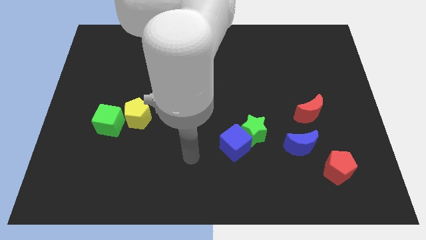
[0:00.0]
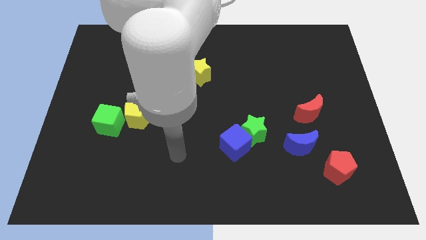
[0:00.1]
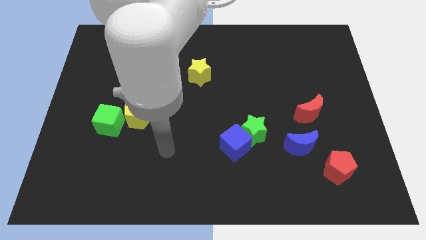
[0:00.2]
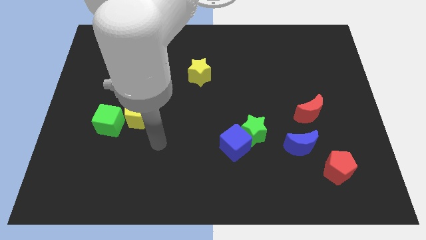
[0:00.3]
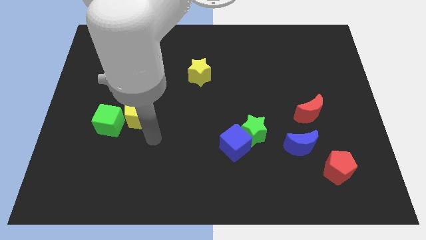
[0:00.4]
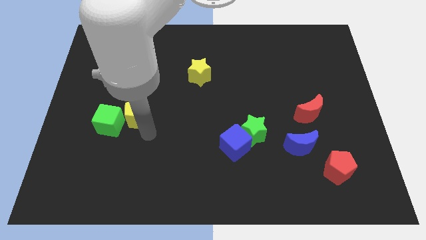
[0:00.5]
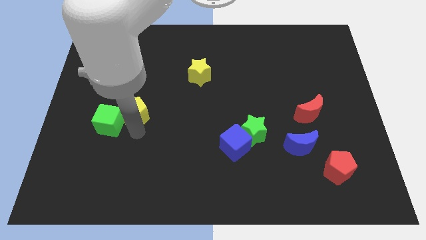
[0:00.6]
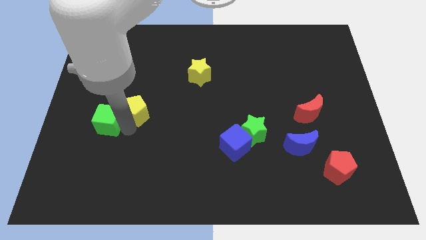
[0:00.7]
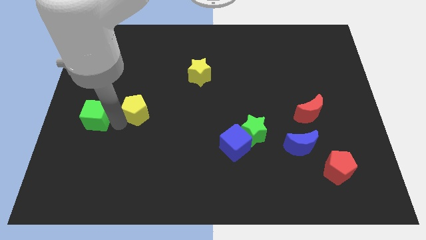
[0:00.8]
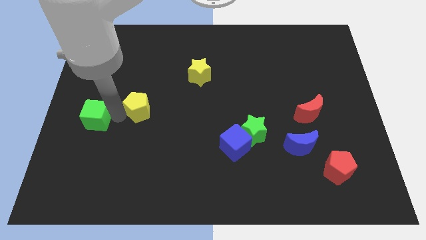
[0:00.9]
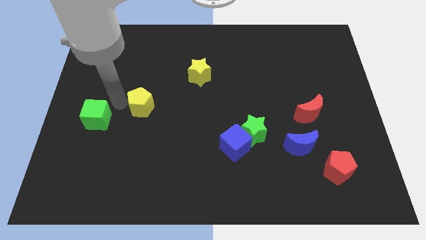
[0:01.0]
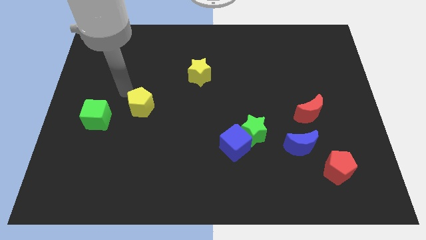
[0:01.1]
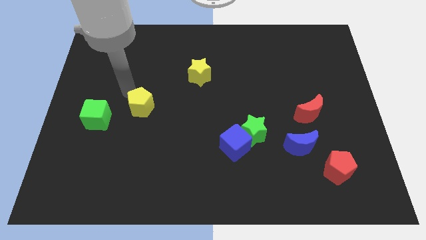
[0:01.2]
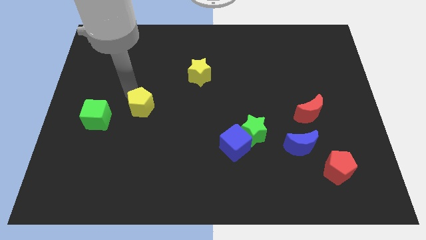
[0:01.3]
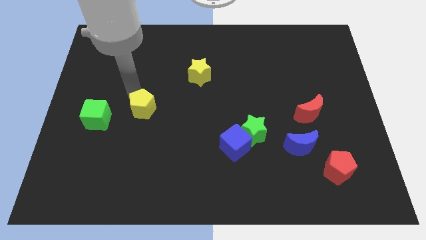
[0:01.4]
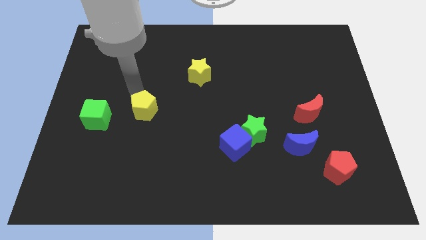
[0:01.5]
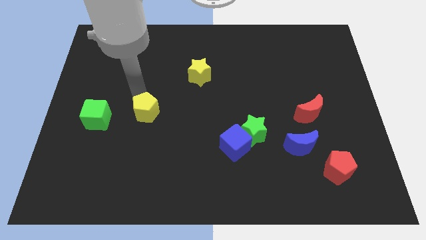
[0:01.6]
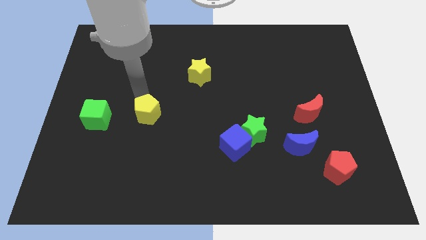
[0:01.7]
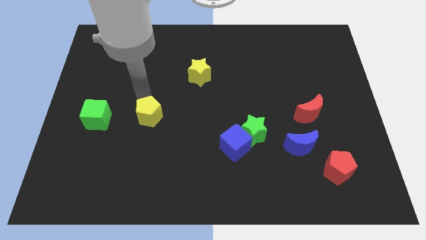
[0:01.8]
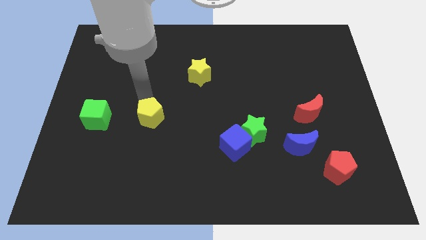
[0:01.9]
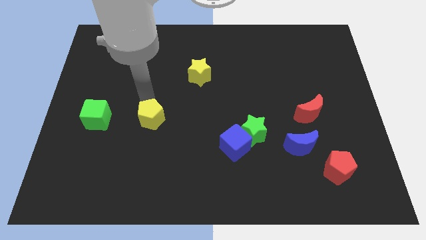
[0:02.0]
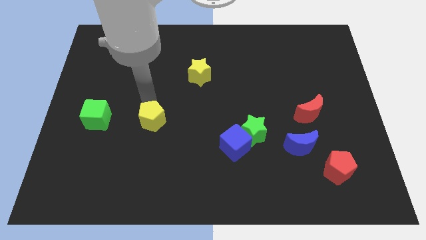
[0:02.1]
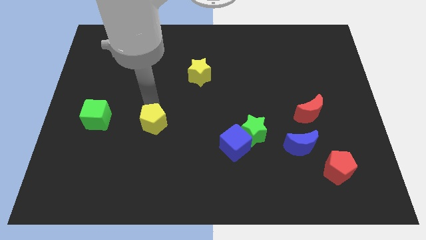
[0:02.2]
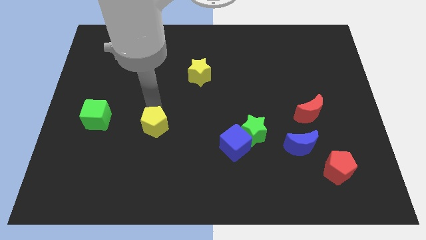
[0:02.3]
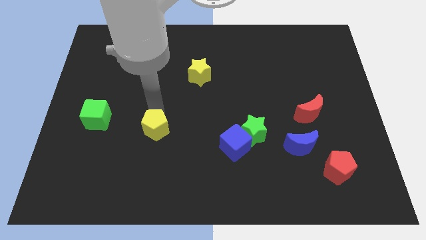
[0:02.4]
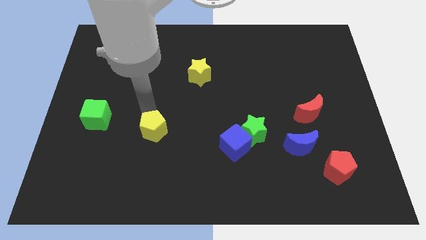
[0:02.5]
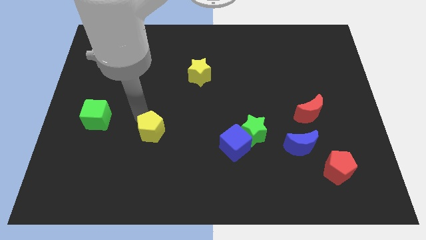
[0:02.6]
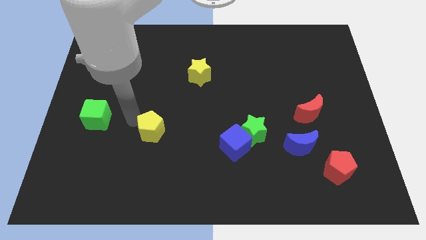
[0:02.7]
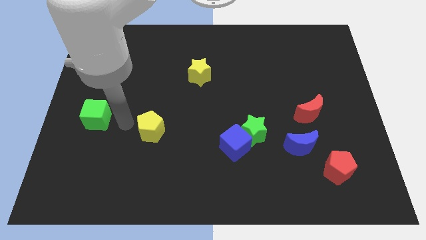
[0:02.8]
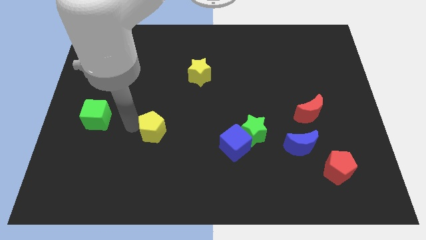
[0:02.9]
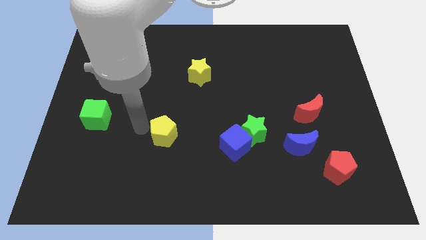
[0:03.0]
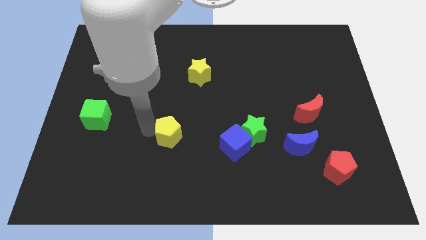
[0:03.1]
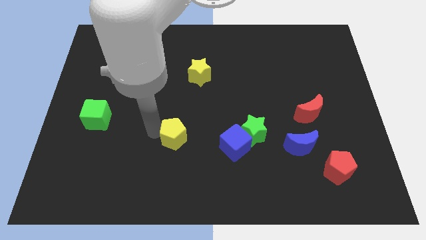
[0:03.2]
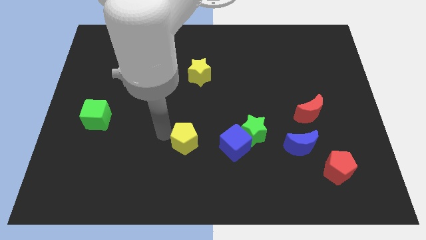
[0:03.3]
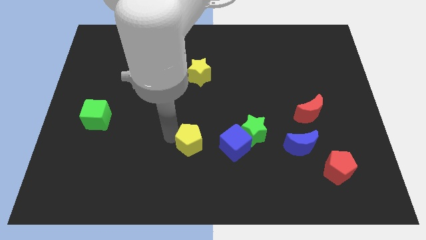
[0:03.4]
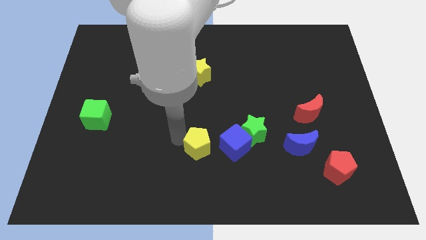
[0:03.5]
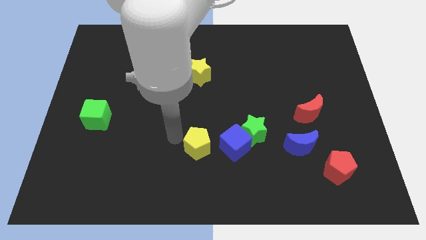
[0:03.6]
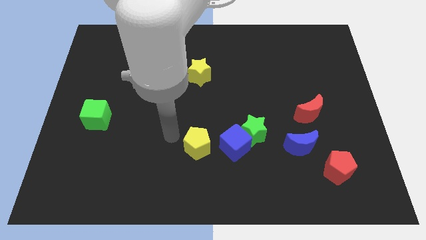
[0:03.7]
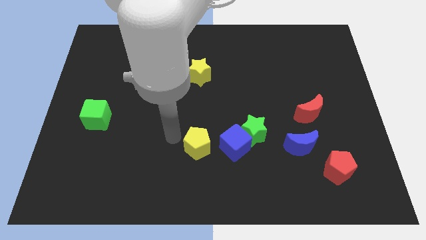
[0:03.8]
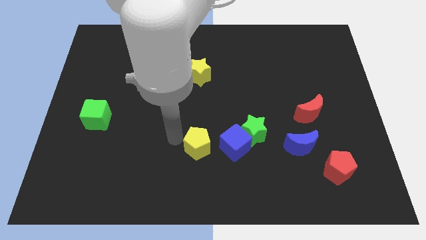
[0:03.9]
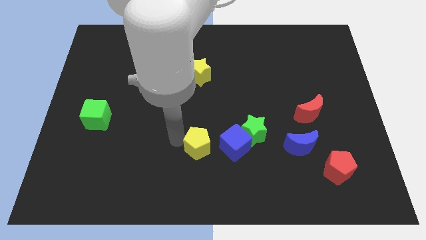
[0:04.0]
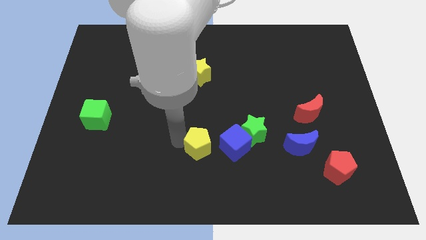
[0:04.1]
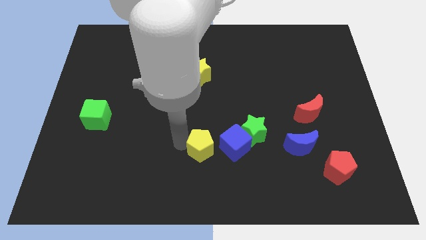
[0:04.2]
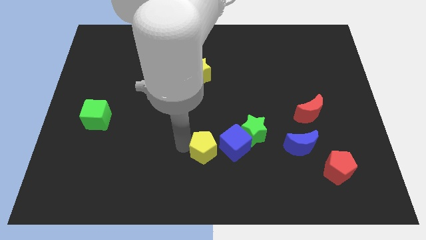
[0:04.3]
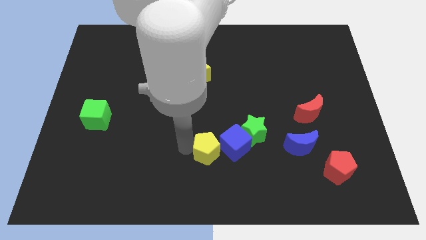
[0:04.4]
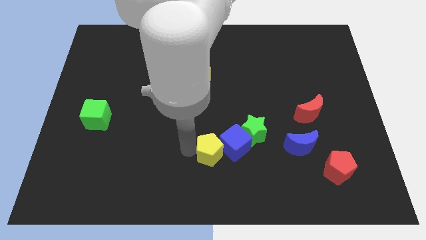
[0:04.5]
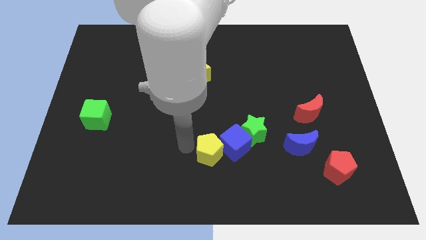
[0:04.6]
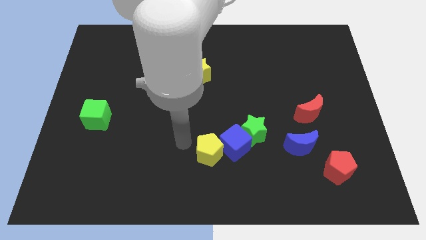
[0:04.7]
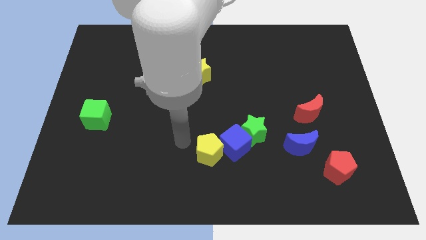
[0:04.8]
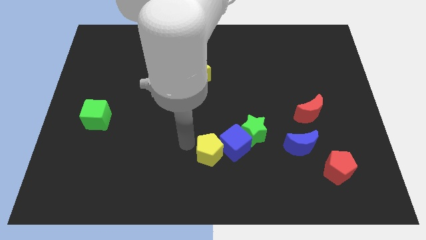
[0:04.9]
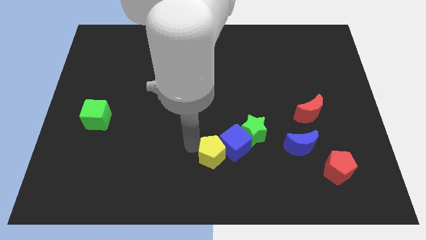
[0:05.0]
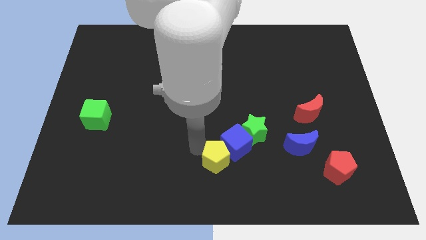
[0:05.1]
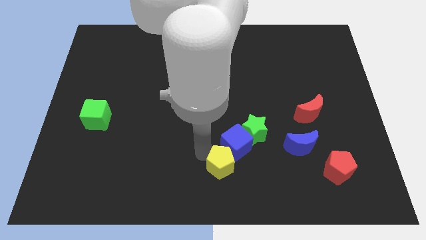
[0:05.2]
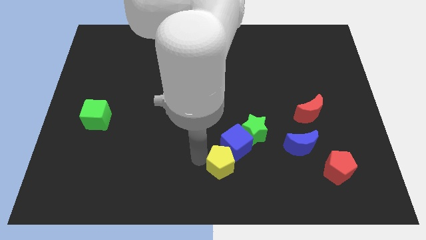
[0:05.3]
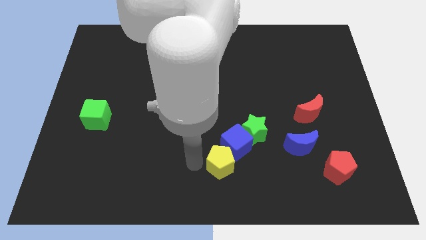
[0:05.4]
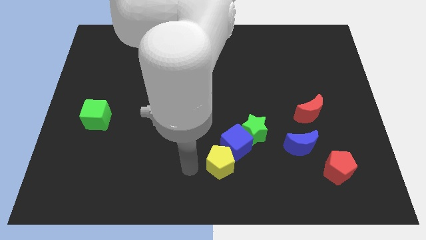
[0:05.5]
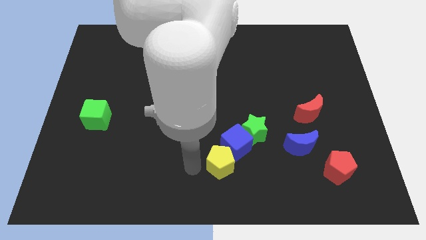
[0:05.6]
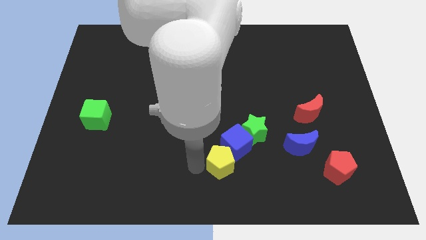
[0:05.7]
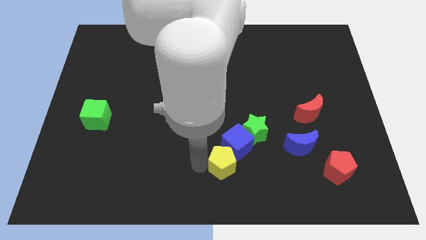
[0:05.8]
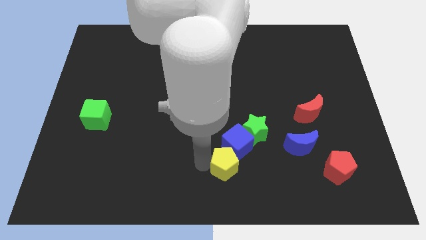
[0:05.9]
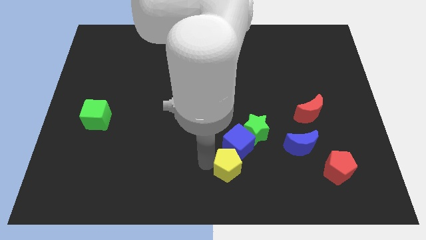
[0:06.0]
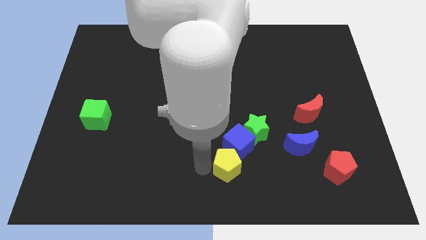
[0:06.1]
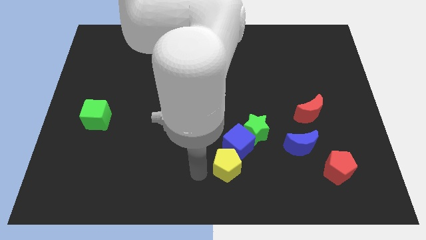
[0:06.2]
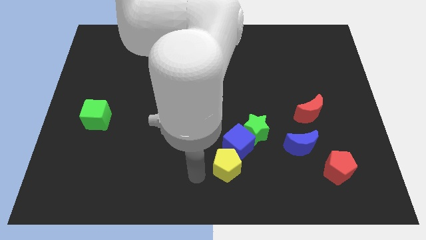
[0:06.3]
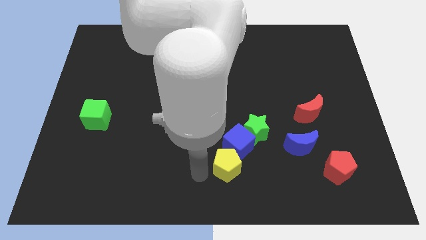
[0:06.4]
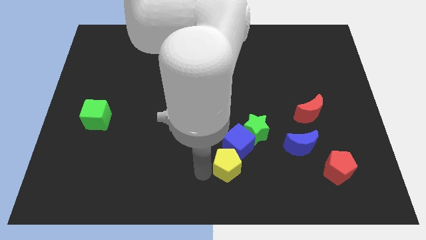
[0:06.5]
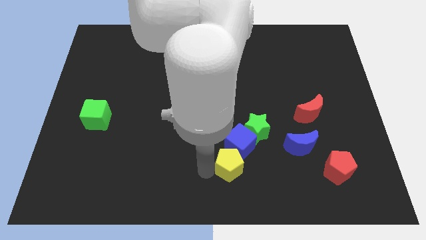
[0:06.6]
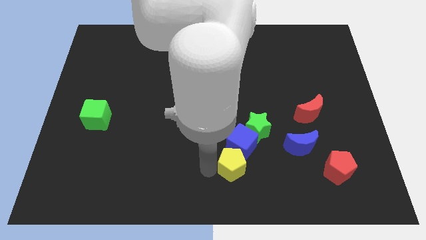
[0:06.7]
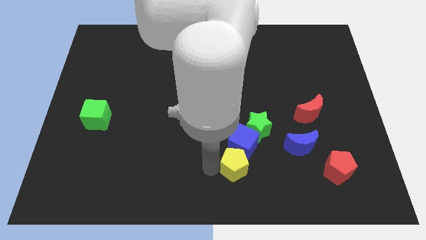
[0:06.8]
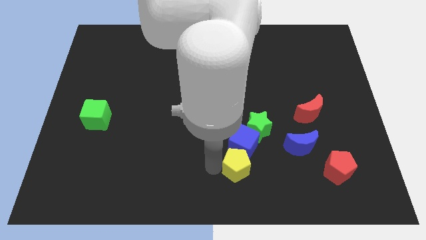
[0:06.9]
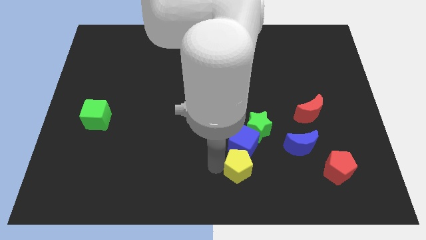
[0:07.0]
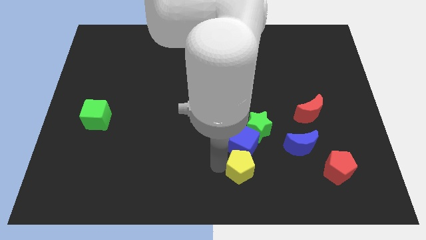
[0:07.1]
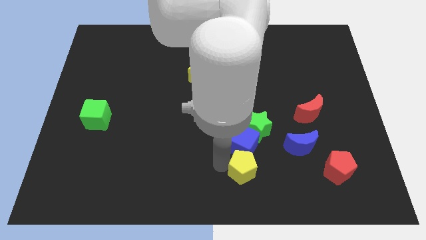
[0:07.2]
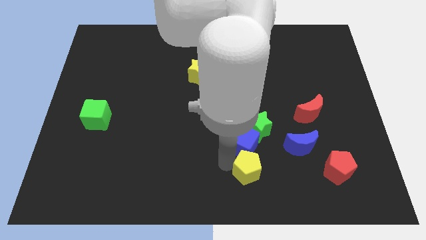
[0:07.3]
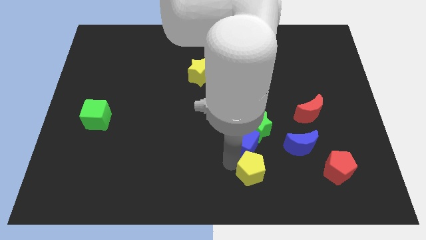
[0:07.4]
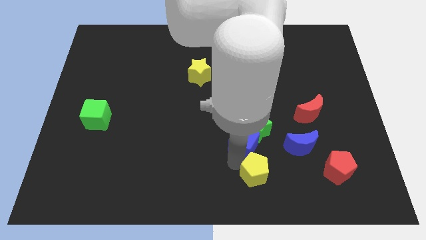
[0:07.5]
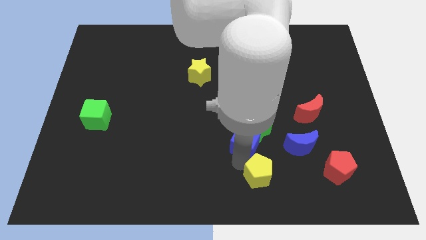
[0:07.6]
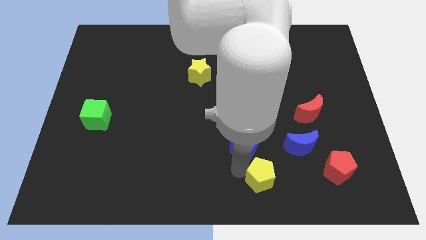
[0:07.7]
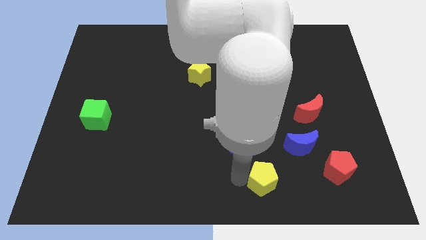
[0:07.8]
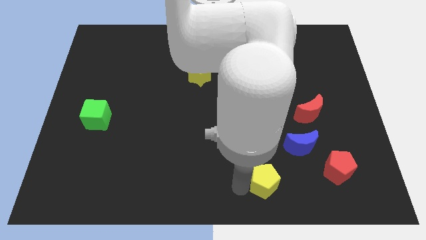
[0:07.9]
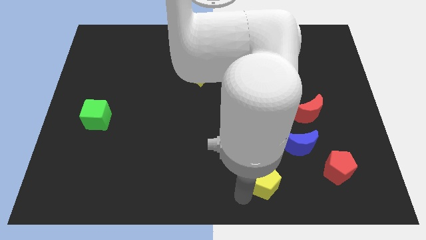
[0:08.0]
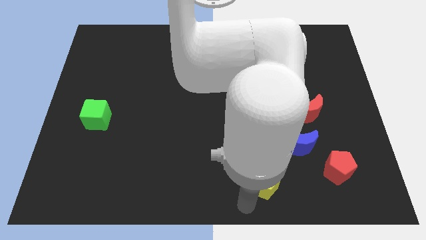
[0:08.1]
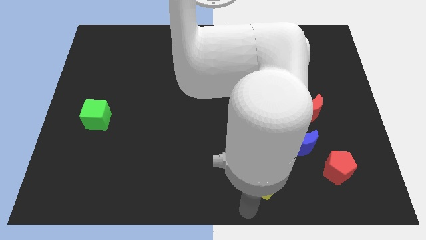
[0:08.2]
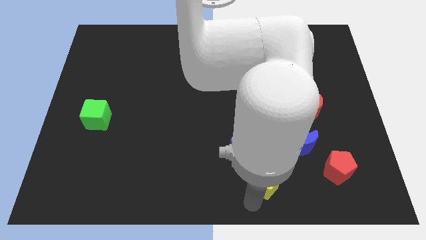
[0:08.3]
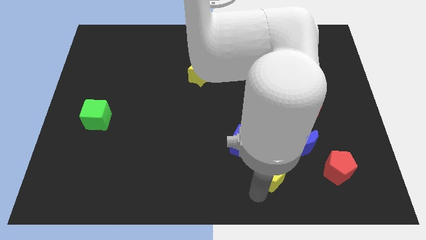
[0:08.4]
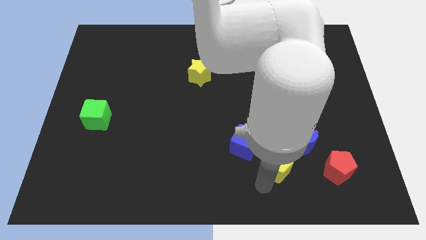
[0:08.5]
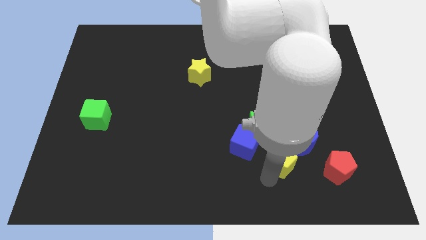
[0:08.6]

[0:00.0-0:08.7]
slide the yellow pentagon diagonally down and to the right of the green star
